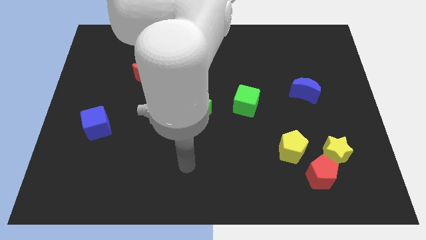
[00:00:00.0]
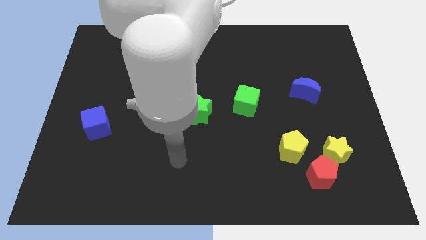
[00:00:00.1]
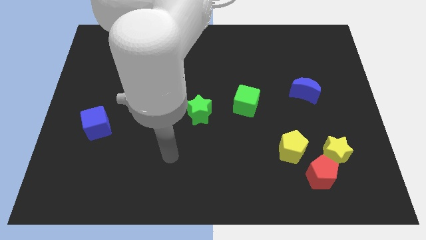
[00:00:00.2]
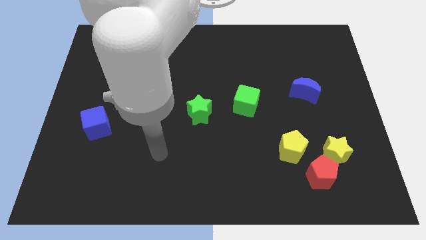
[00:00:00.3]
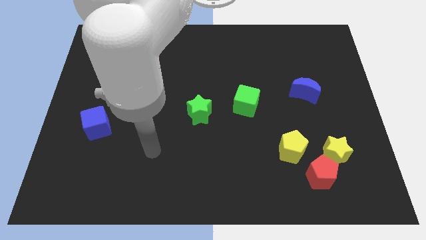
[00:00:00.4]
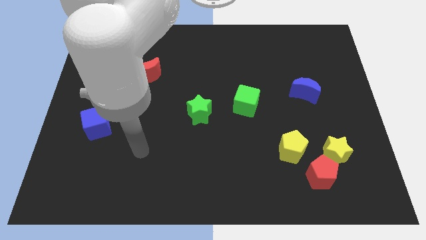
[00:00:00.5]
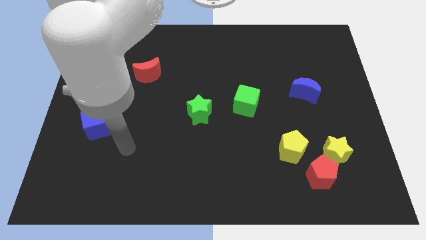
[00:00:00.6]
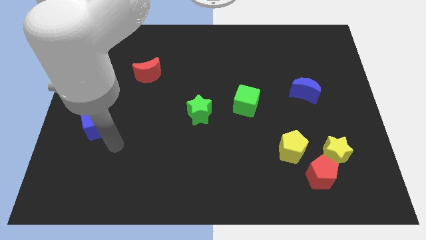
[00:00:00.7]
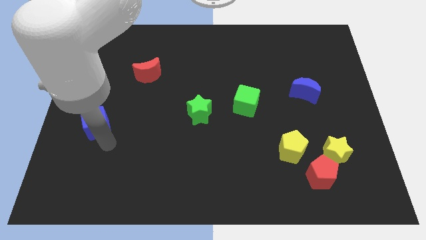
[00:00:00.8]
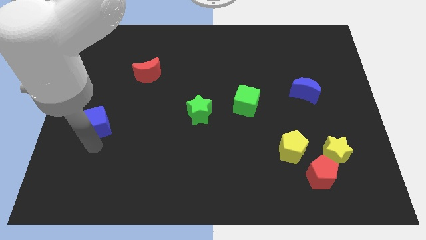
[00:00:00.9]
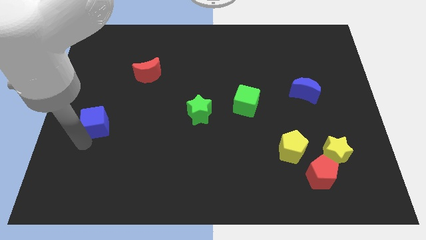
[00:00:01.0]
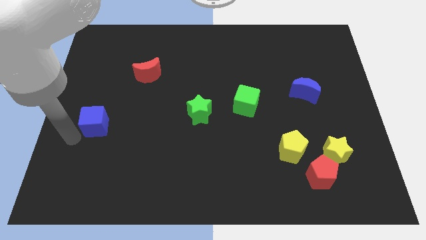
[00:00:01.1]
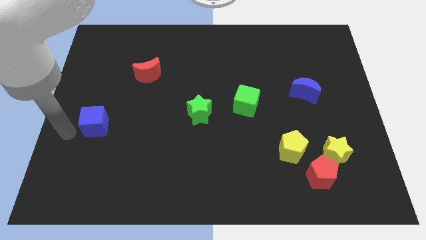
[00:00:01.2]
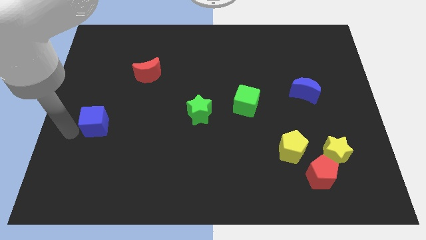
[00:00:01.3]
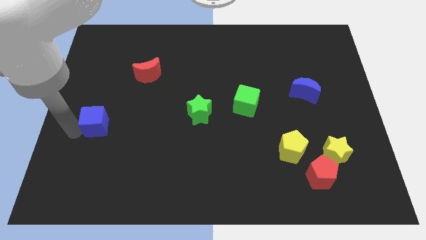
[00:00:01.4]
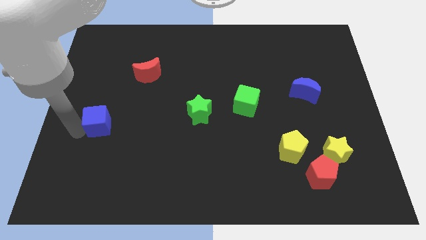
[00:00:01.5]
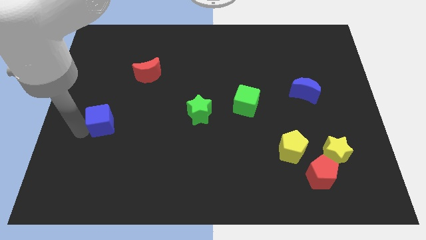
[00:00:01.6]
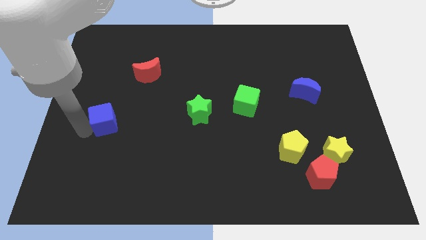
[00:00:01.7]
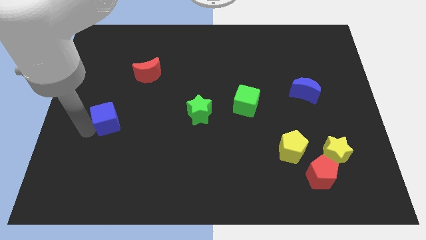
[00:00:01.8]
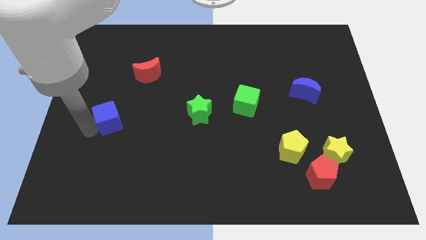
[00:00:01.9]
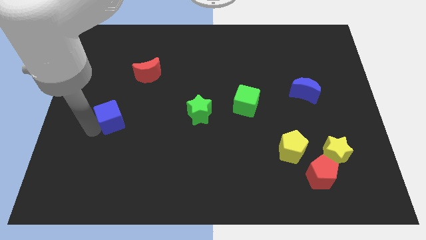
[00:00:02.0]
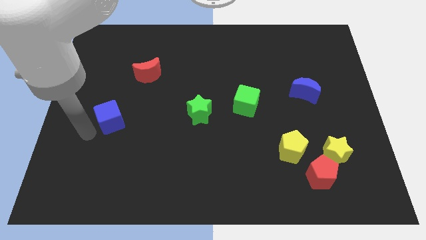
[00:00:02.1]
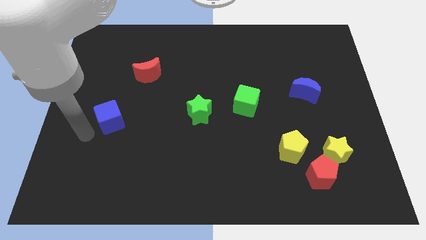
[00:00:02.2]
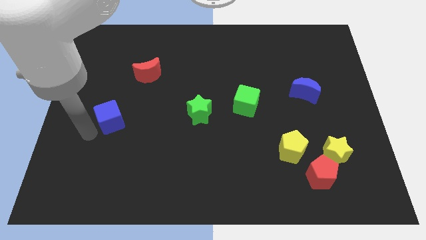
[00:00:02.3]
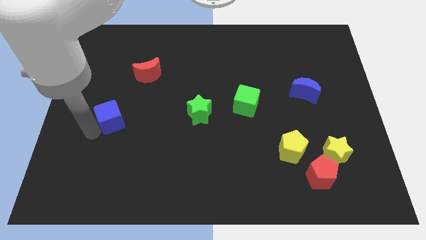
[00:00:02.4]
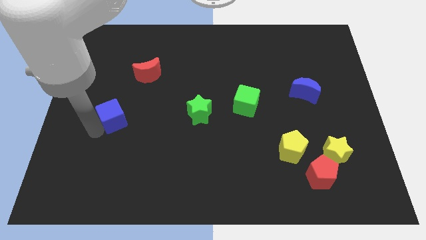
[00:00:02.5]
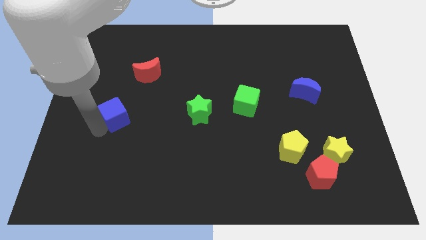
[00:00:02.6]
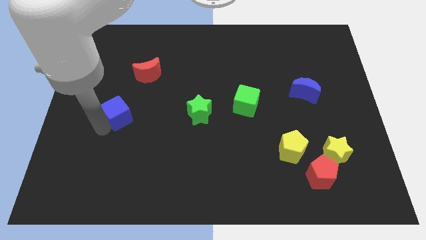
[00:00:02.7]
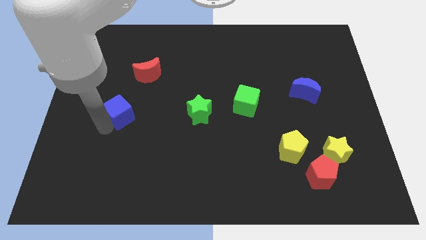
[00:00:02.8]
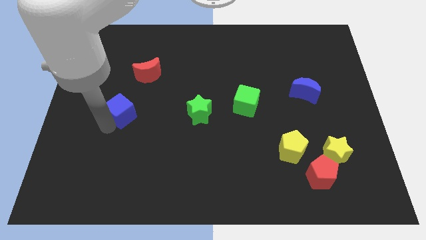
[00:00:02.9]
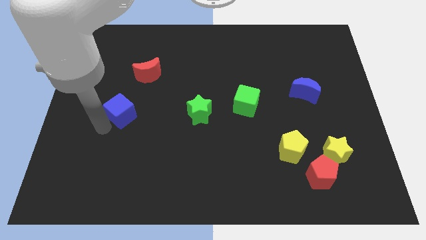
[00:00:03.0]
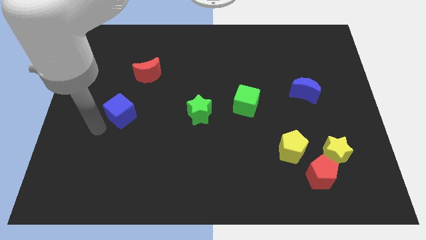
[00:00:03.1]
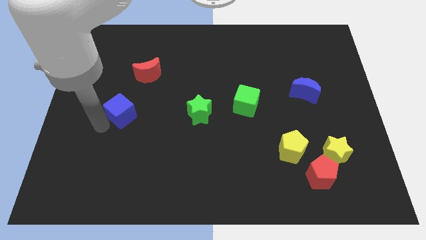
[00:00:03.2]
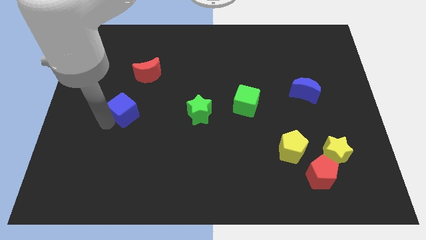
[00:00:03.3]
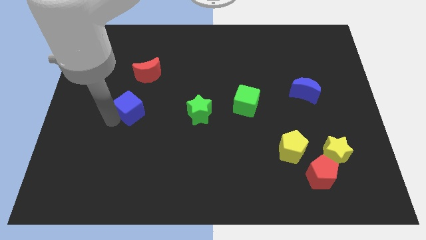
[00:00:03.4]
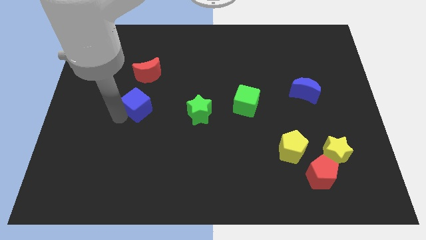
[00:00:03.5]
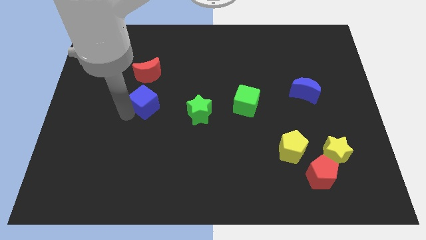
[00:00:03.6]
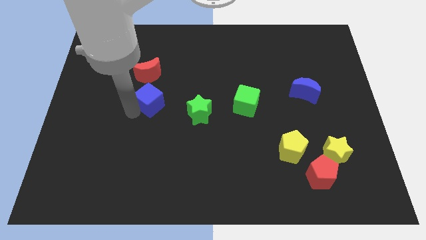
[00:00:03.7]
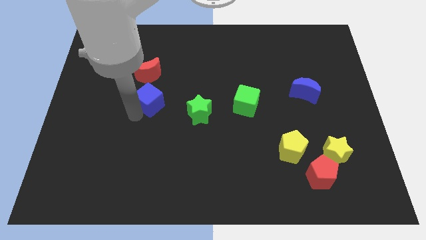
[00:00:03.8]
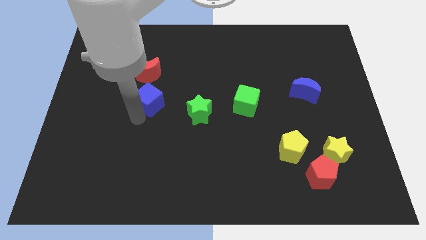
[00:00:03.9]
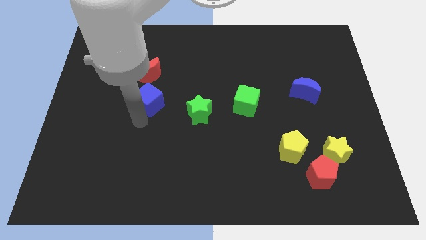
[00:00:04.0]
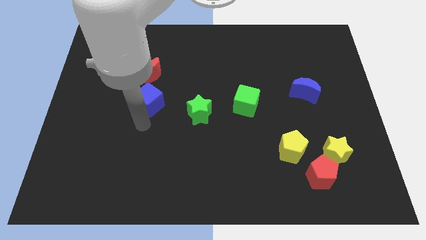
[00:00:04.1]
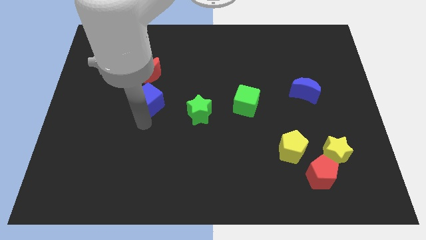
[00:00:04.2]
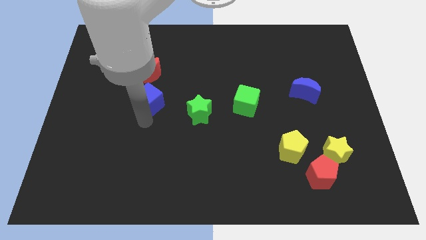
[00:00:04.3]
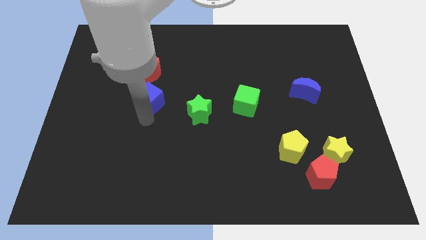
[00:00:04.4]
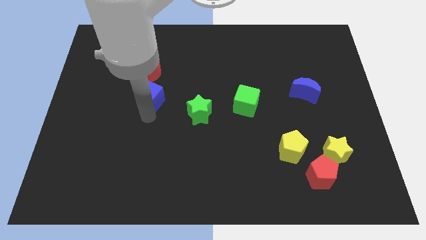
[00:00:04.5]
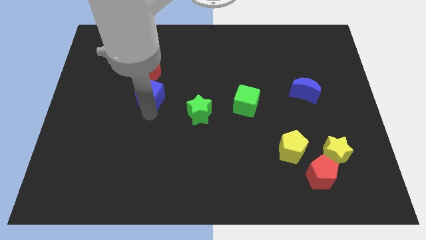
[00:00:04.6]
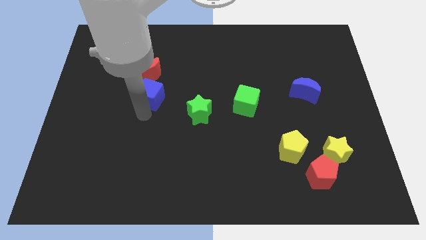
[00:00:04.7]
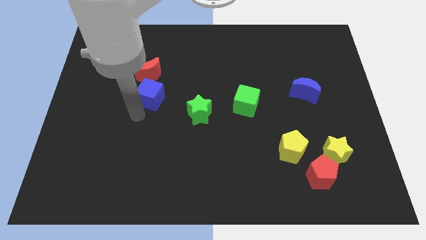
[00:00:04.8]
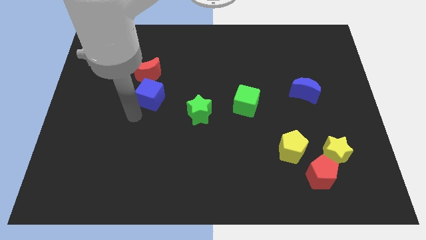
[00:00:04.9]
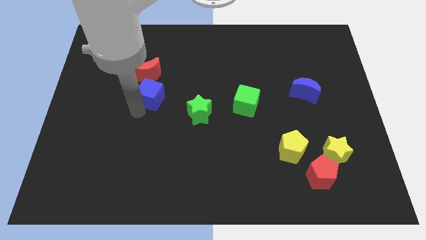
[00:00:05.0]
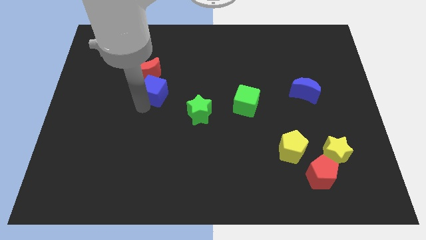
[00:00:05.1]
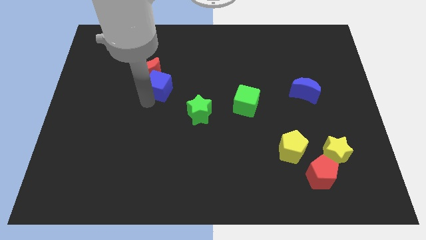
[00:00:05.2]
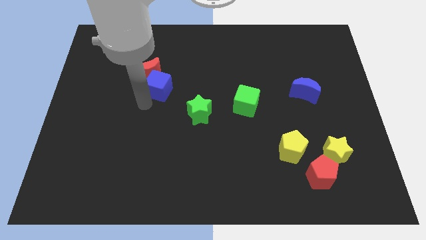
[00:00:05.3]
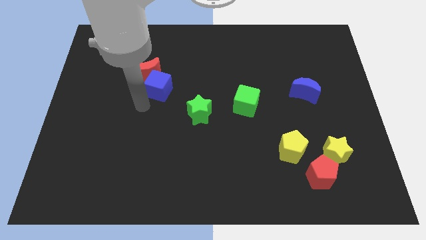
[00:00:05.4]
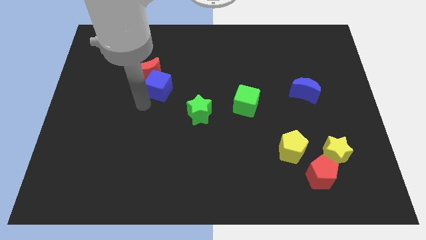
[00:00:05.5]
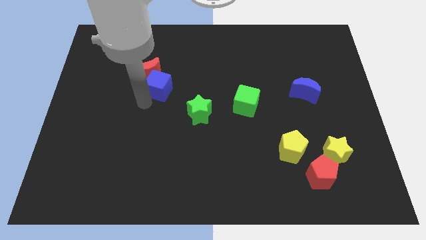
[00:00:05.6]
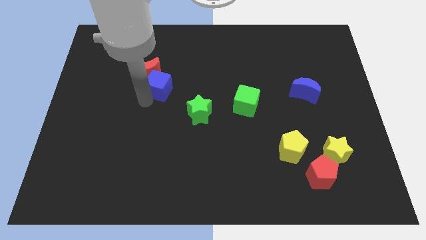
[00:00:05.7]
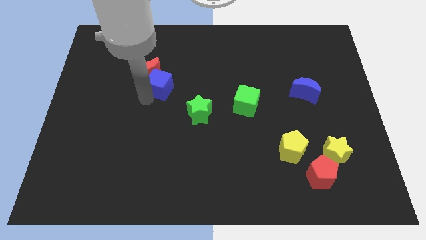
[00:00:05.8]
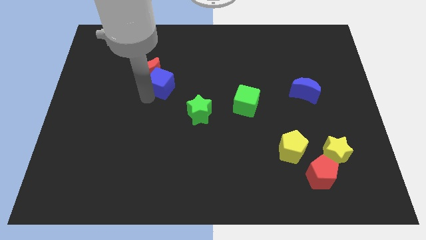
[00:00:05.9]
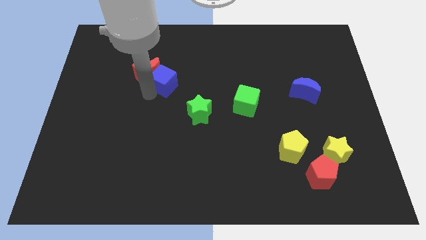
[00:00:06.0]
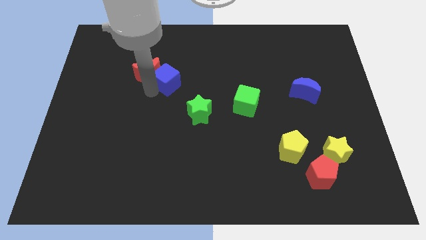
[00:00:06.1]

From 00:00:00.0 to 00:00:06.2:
push the blue cube upwards and right diagonally

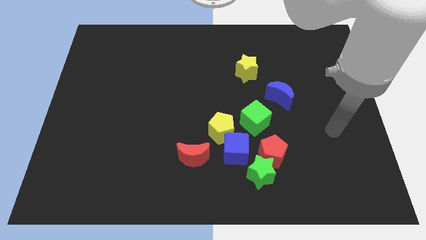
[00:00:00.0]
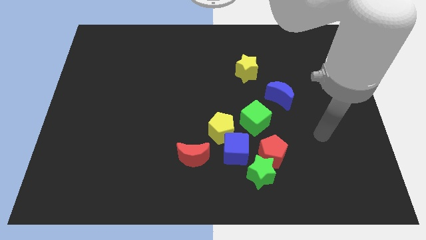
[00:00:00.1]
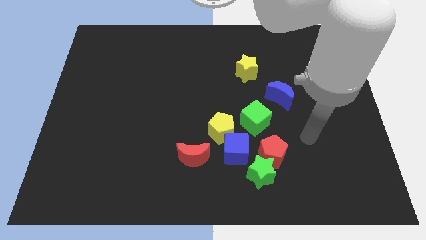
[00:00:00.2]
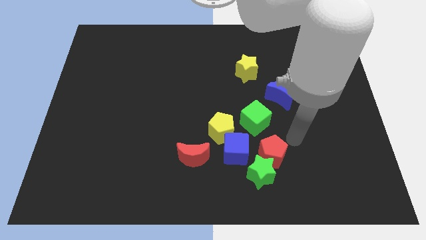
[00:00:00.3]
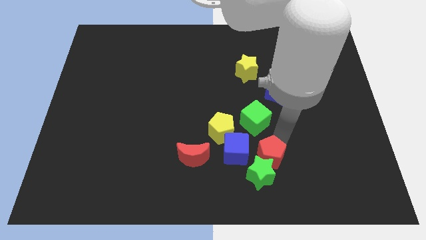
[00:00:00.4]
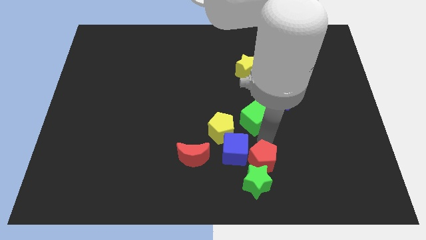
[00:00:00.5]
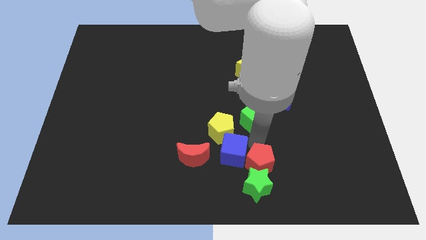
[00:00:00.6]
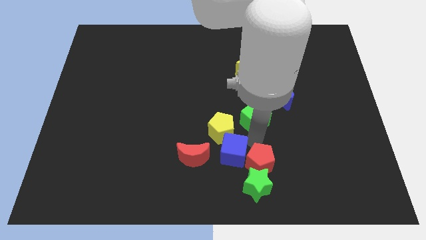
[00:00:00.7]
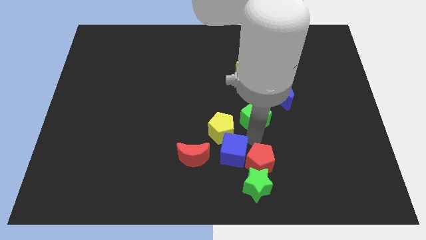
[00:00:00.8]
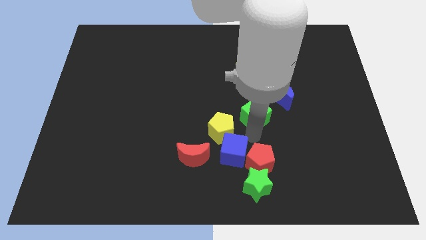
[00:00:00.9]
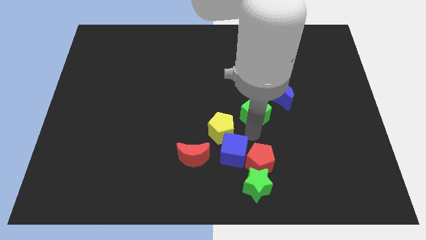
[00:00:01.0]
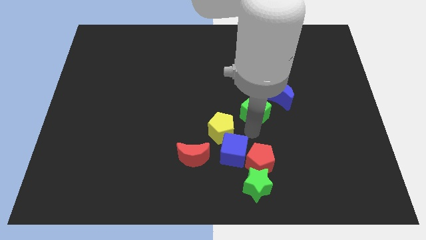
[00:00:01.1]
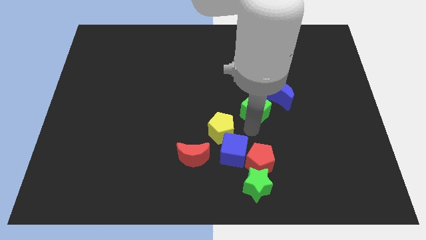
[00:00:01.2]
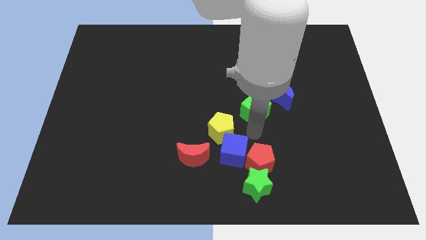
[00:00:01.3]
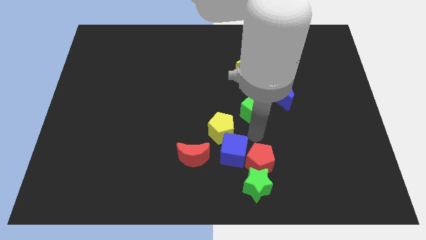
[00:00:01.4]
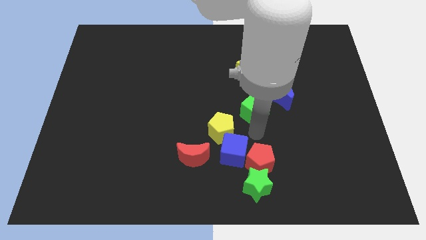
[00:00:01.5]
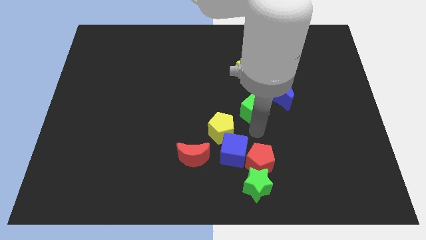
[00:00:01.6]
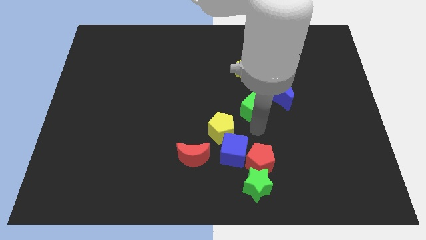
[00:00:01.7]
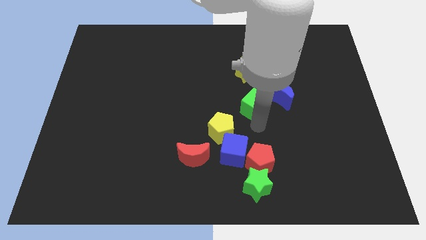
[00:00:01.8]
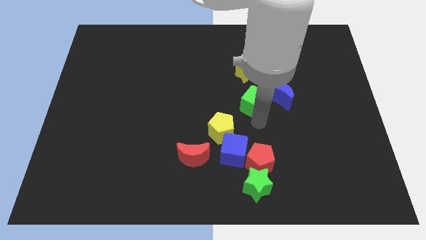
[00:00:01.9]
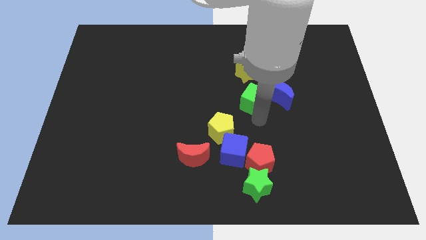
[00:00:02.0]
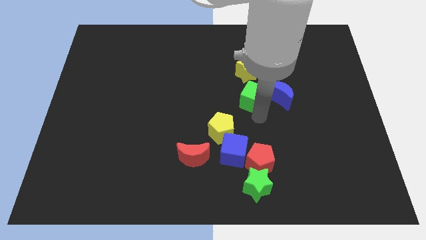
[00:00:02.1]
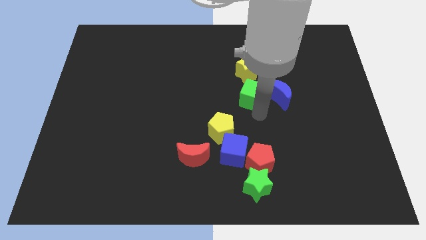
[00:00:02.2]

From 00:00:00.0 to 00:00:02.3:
move the green cube a little upwards
